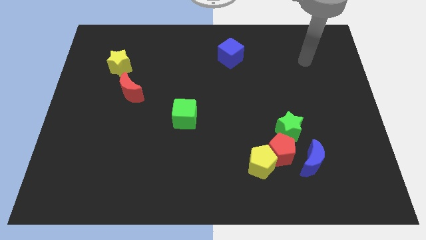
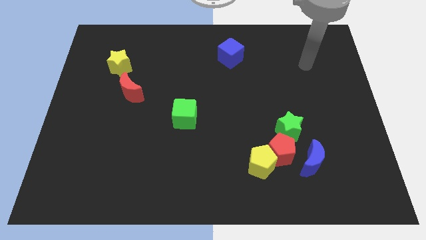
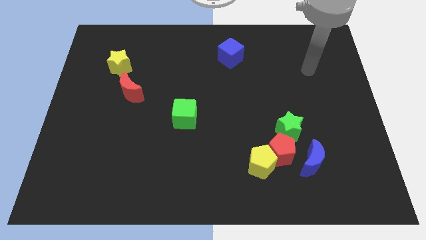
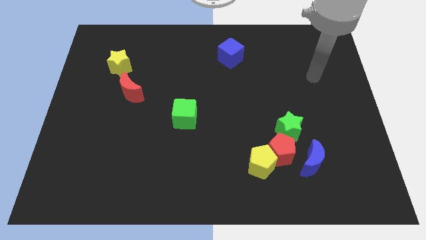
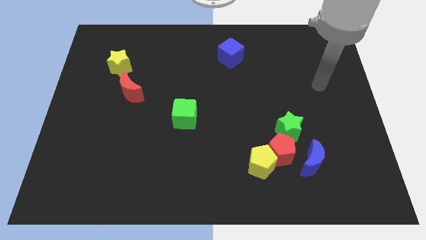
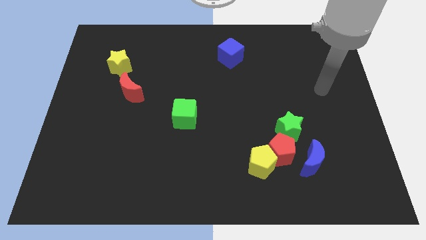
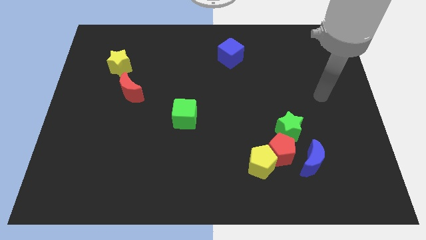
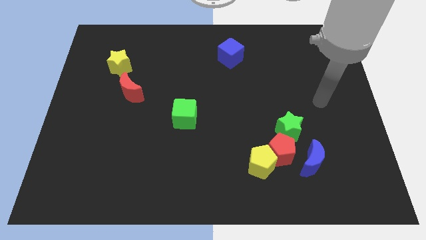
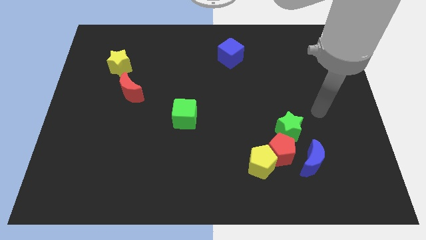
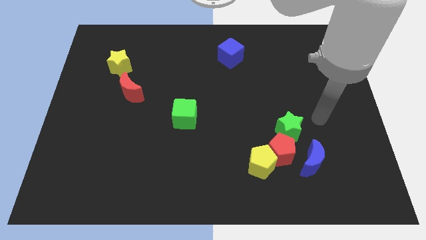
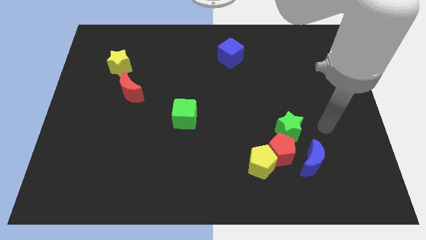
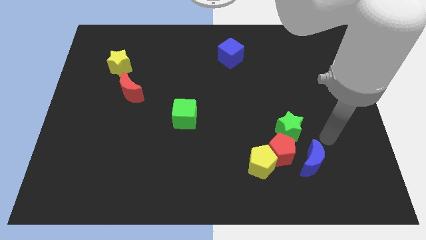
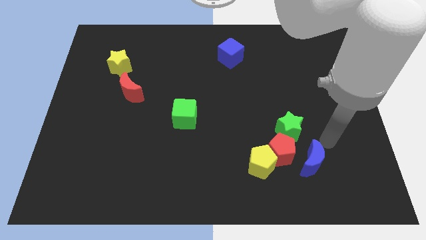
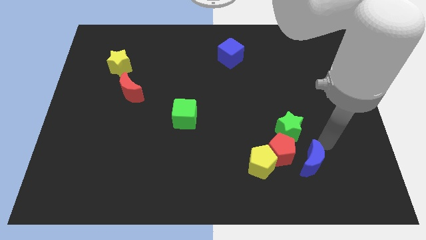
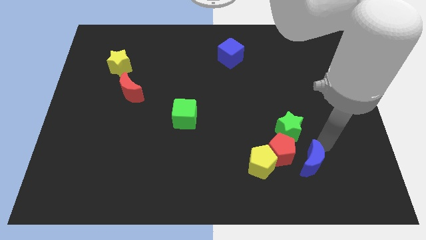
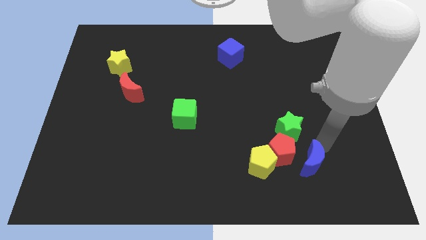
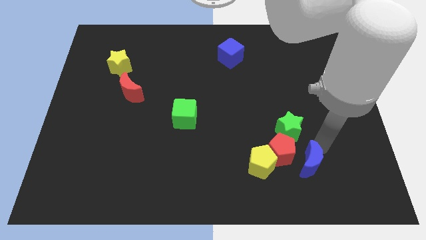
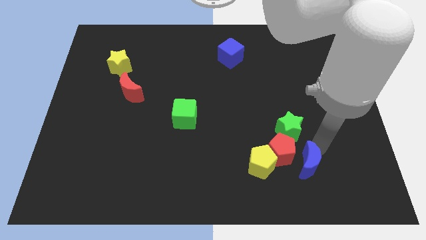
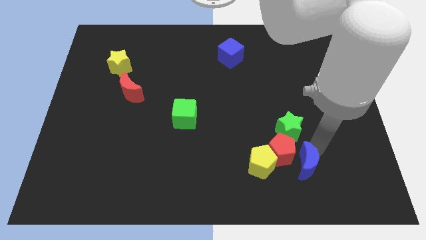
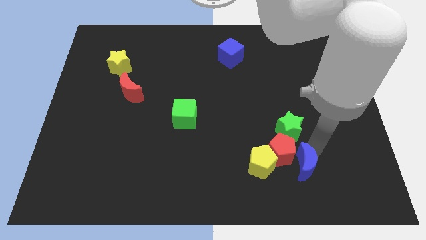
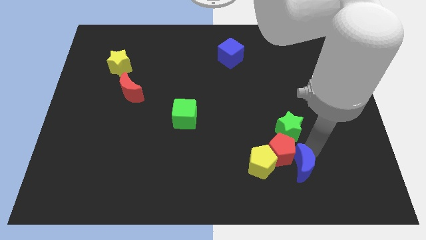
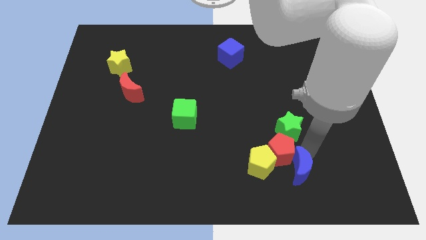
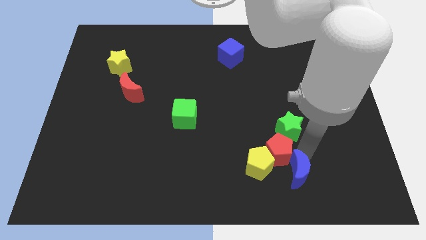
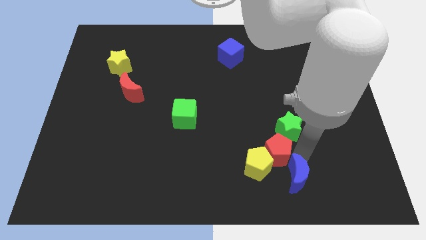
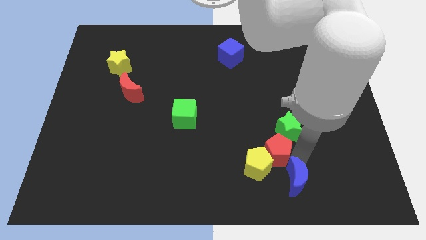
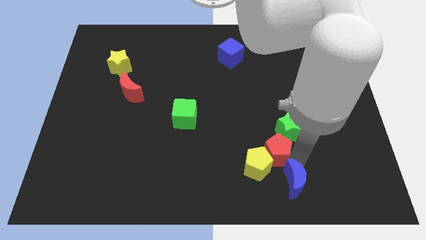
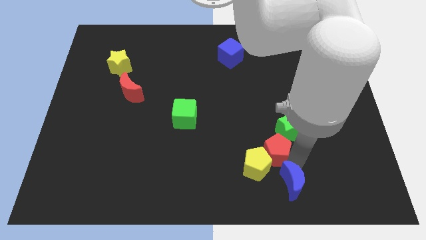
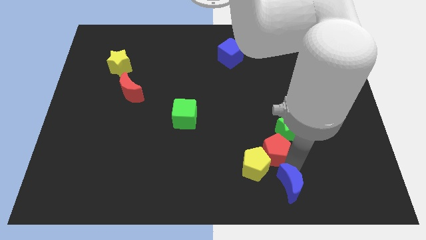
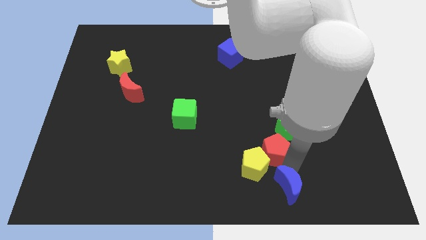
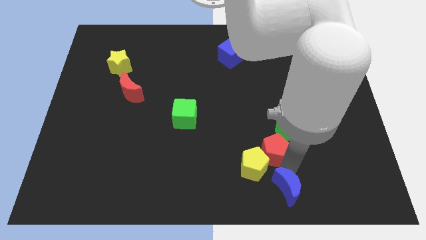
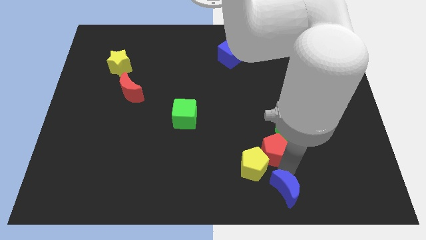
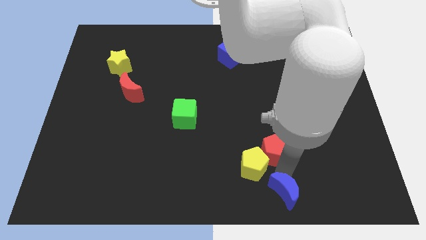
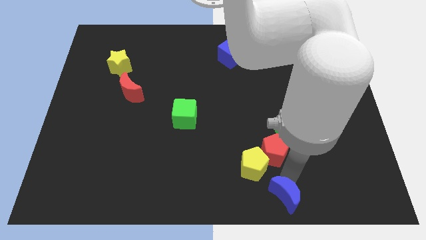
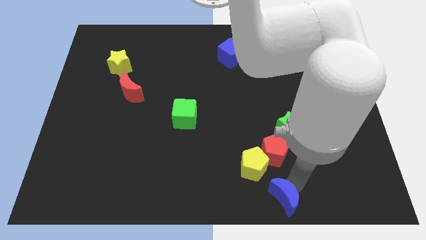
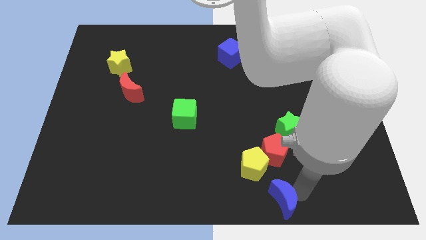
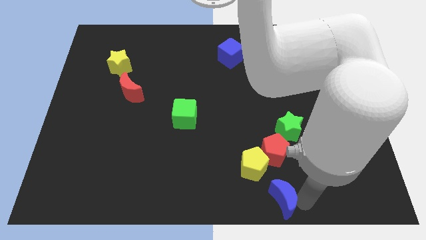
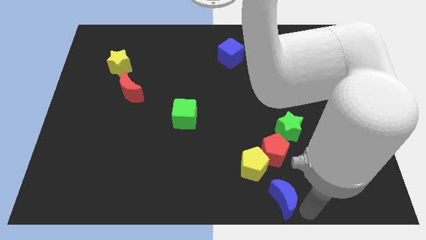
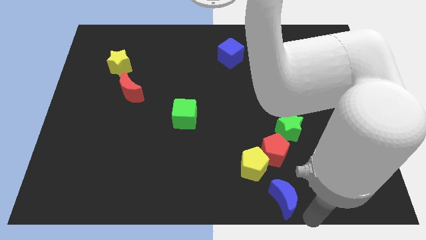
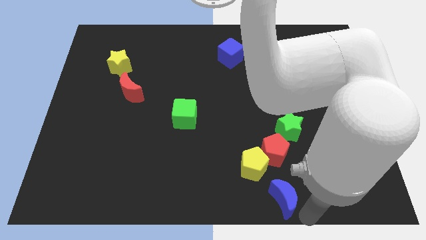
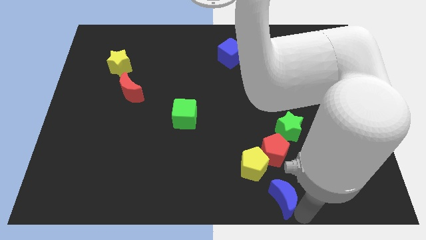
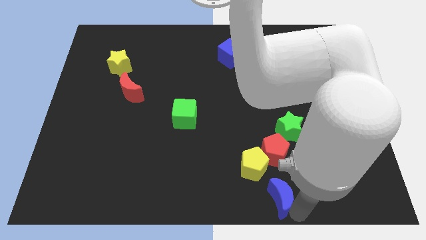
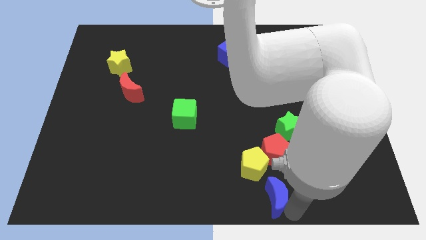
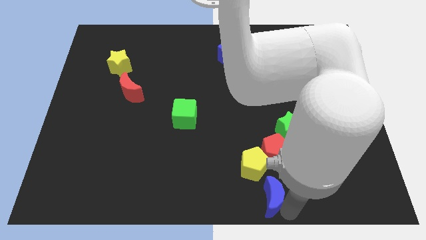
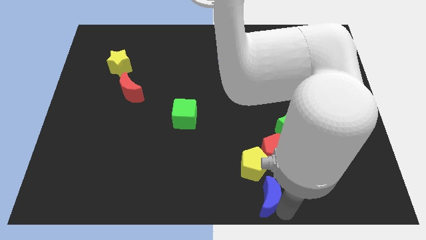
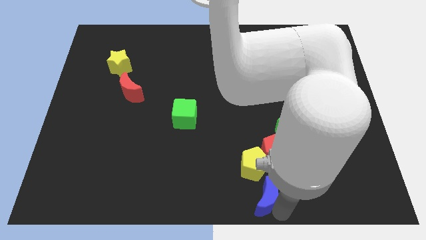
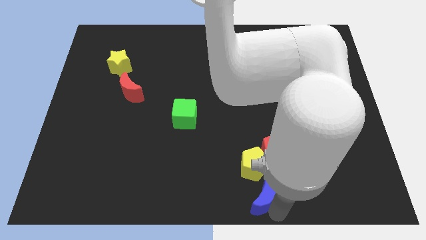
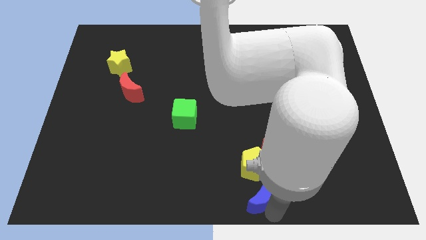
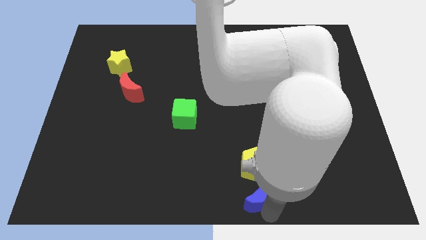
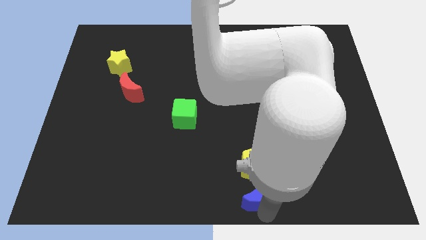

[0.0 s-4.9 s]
slide the blue moon to the bottom left of the red pentagon

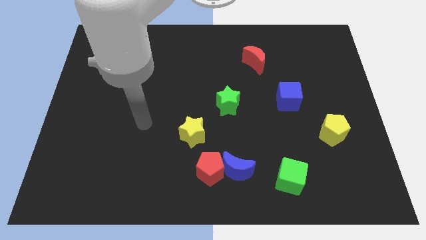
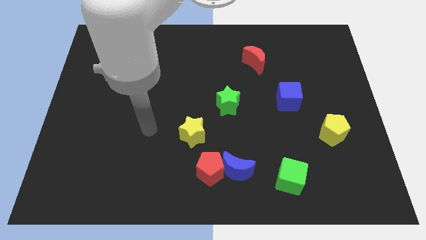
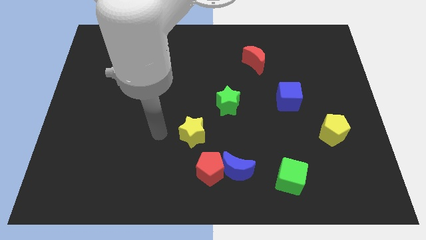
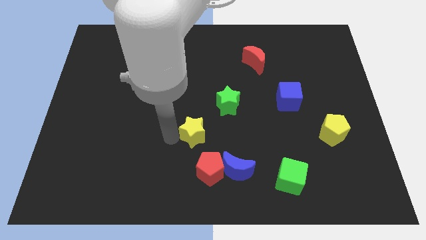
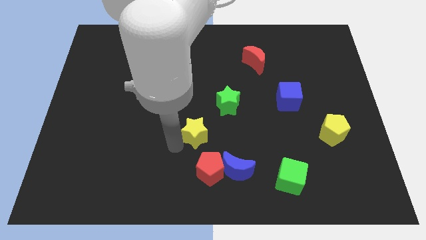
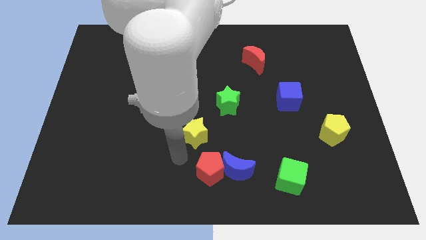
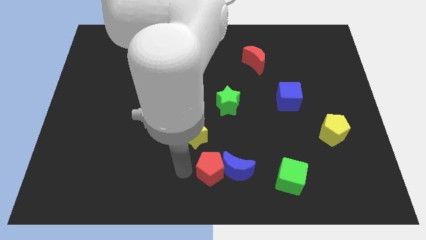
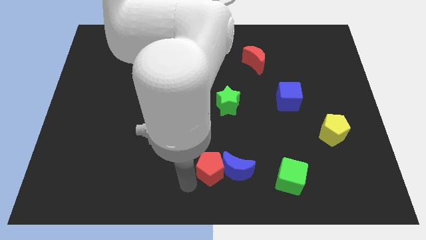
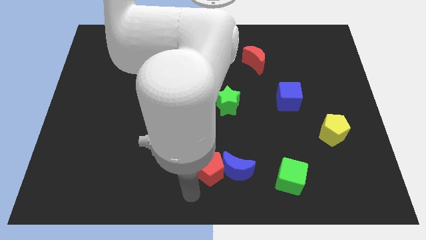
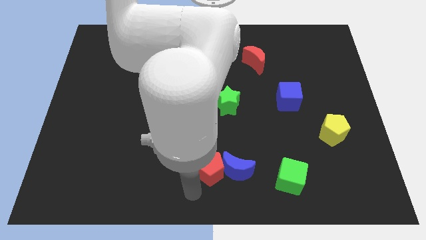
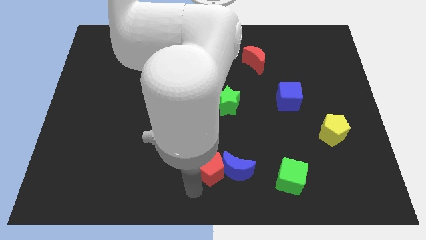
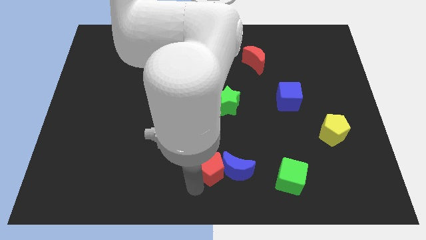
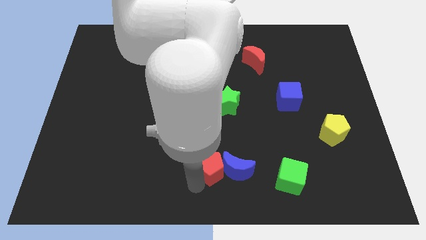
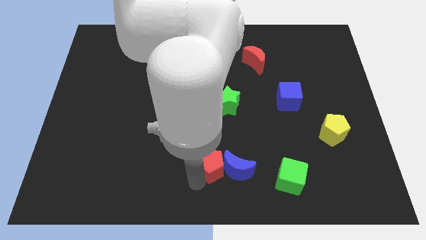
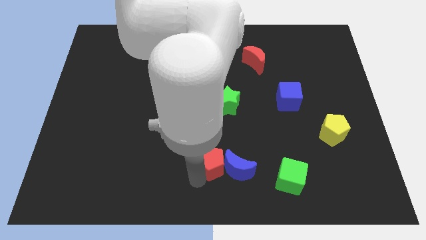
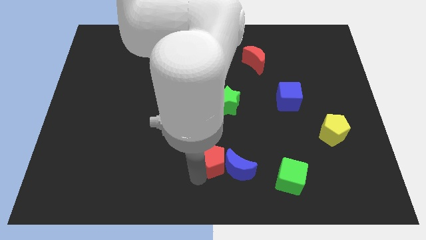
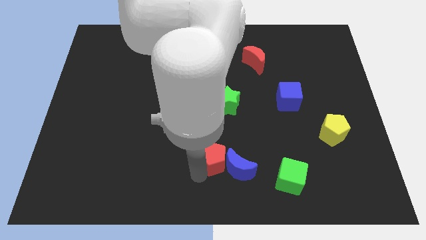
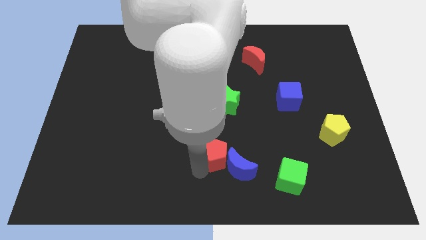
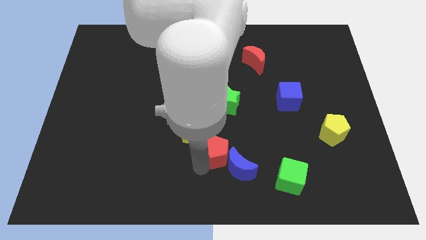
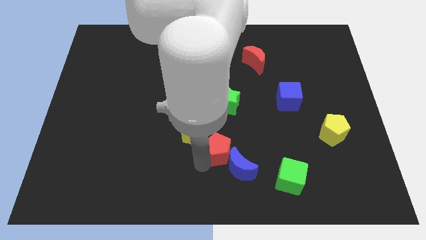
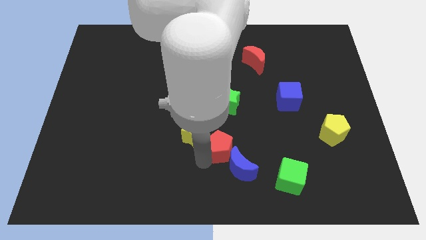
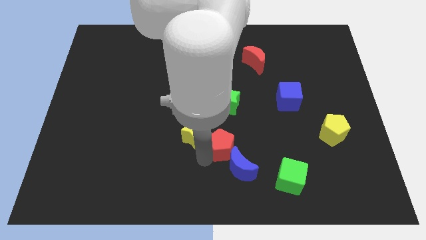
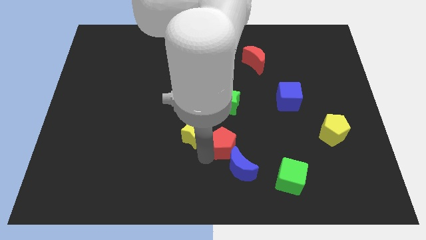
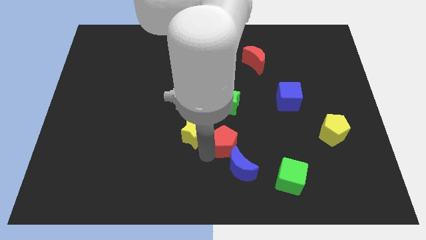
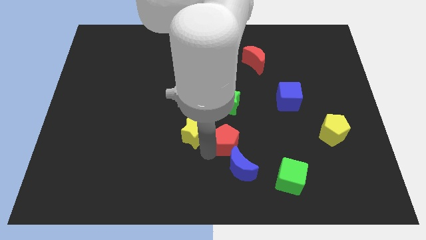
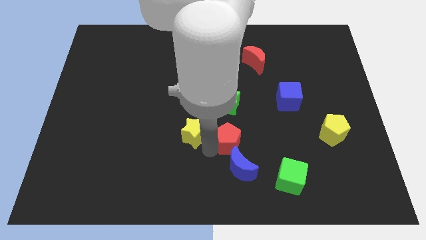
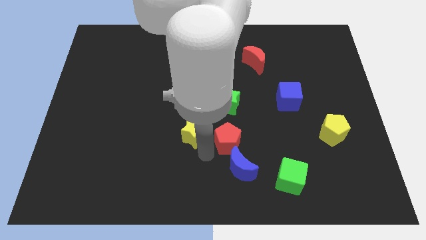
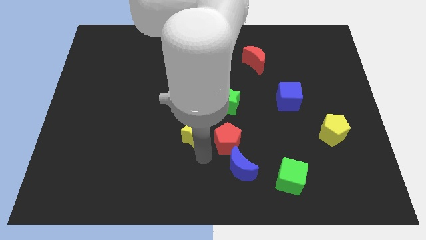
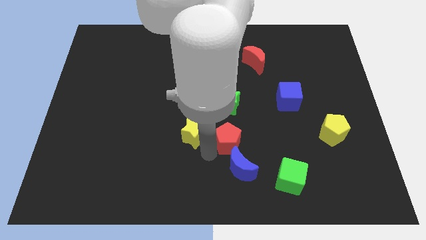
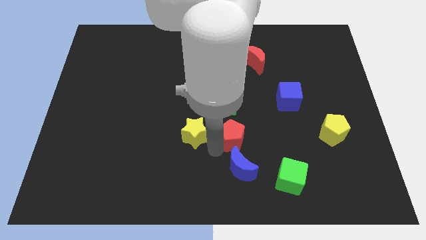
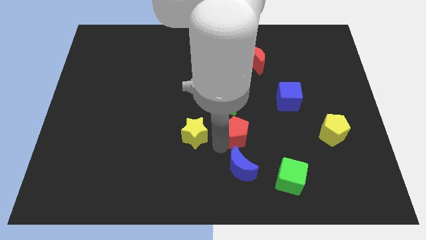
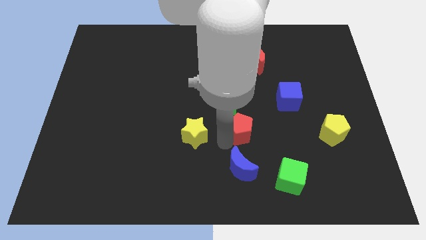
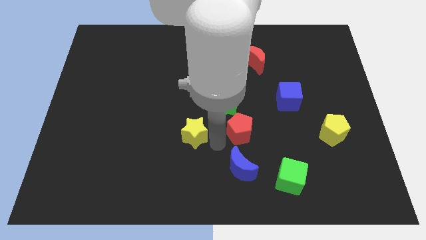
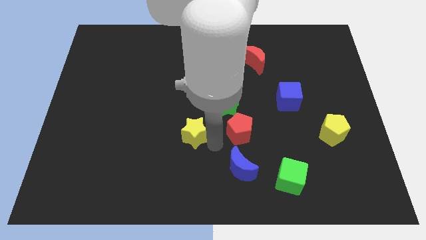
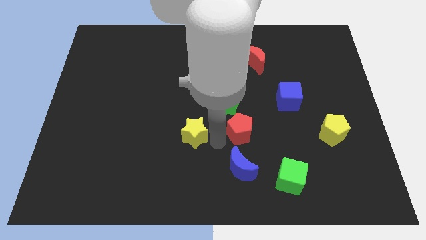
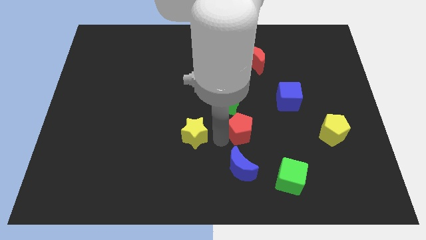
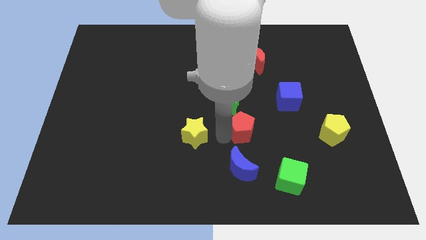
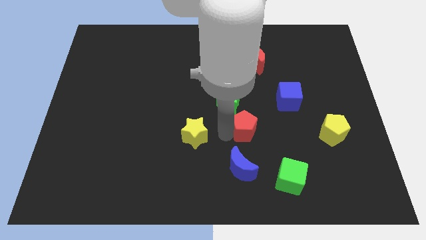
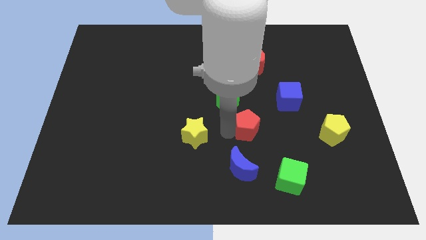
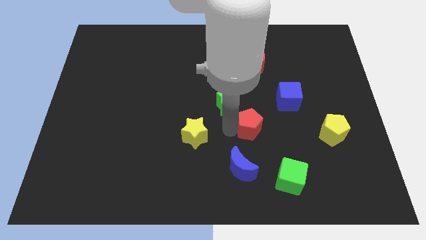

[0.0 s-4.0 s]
push the red pentagon to the bottom left side of the blue cube
